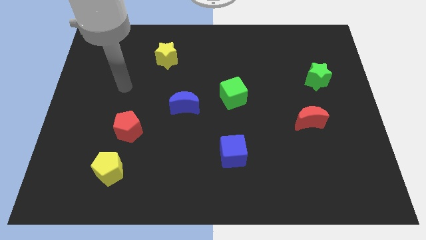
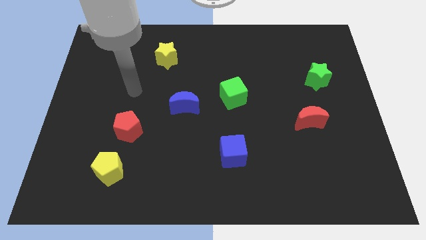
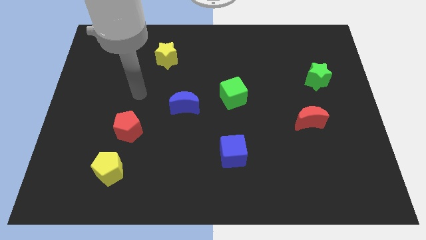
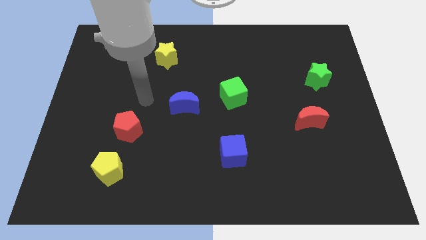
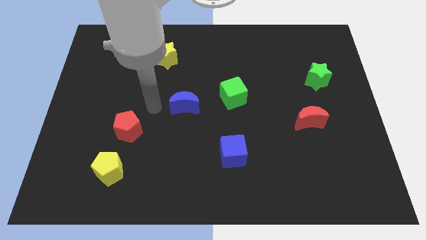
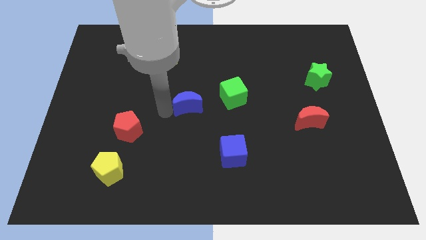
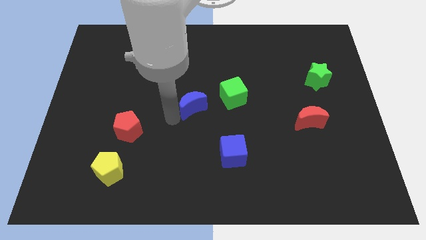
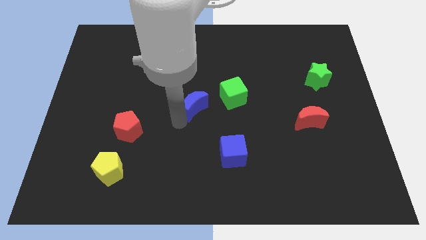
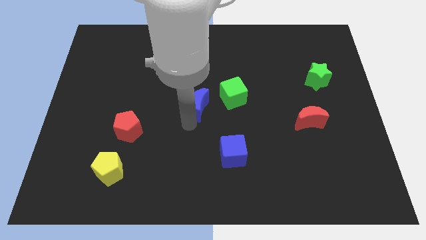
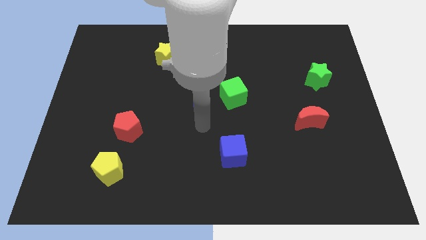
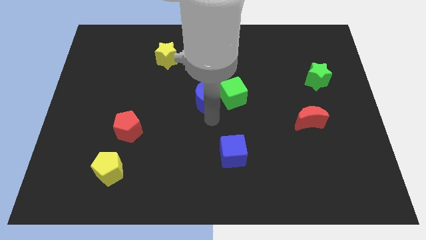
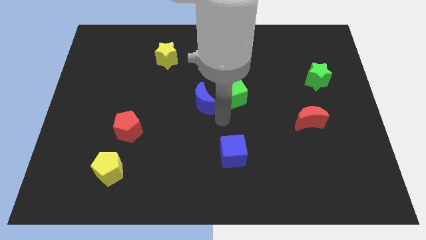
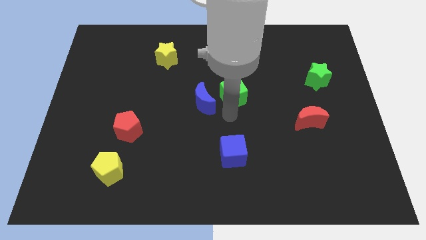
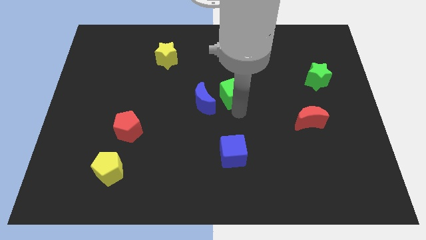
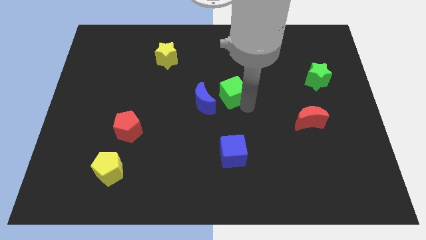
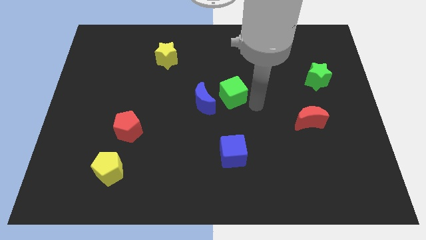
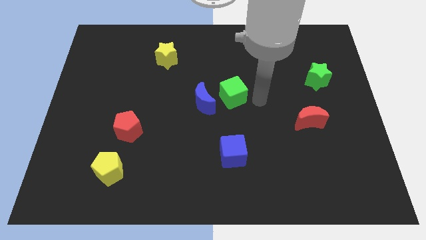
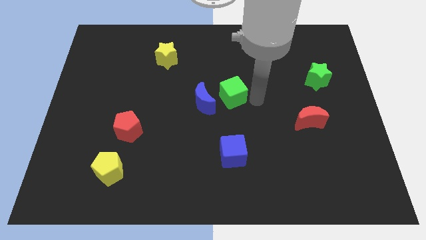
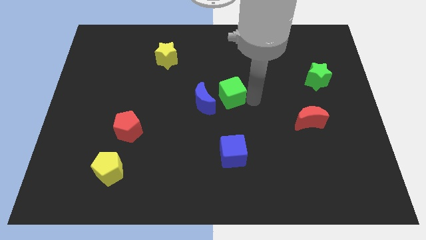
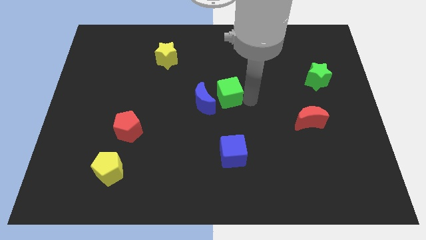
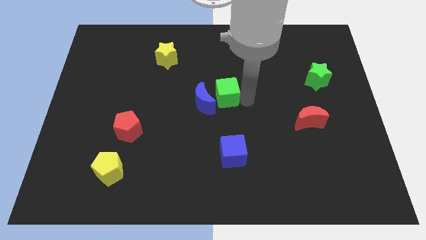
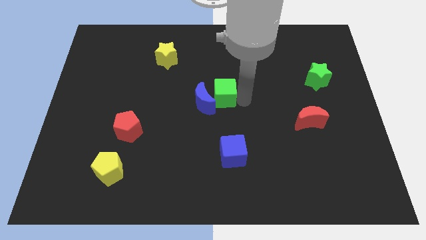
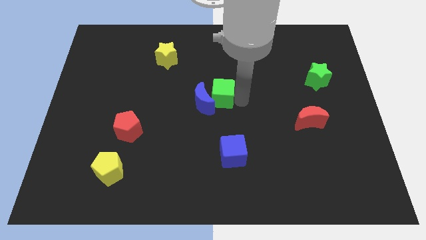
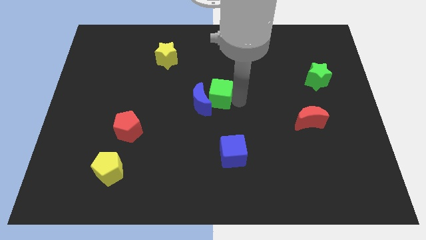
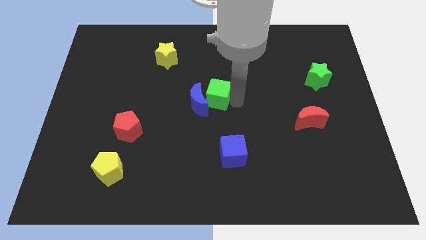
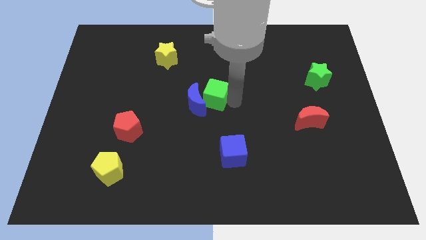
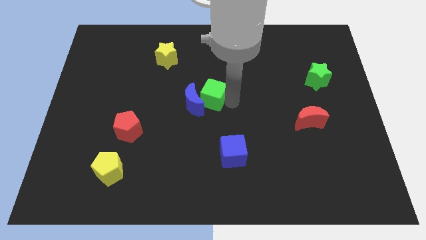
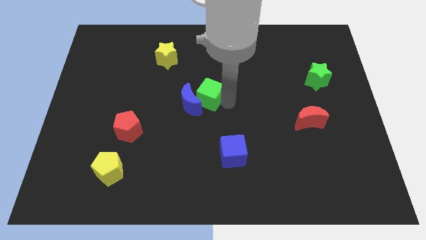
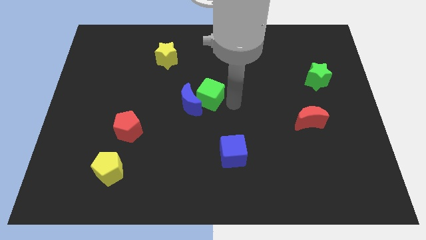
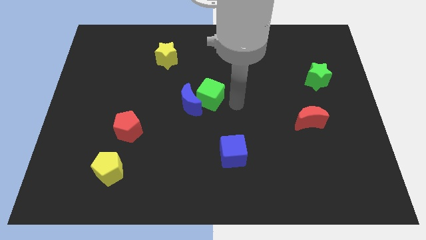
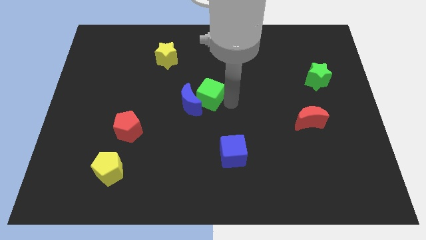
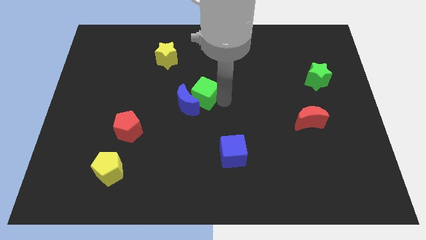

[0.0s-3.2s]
push the green cube slightly left

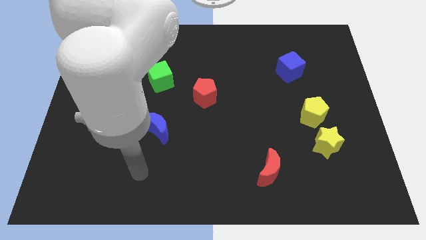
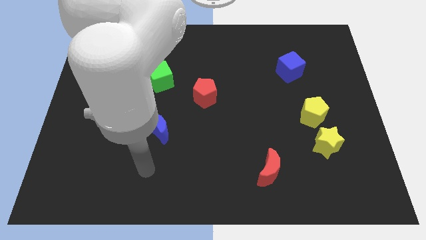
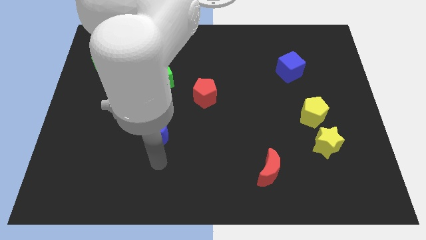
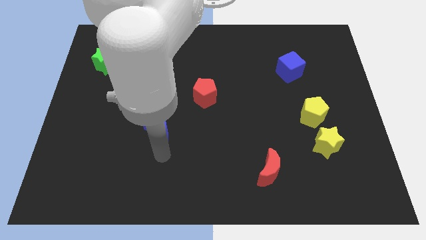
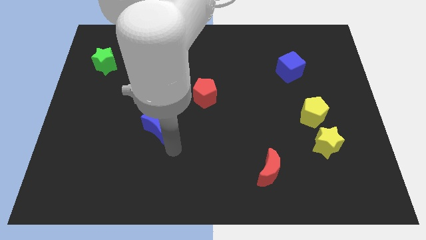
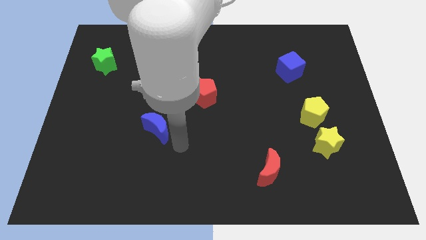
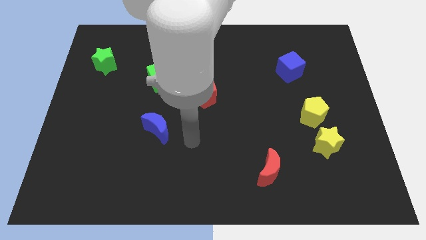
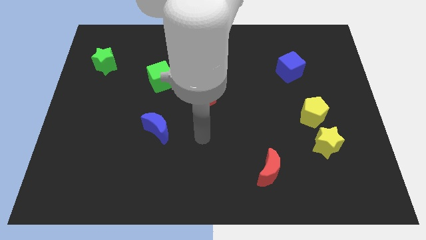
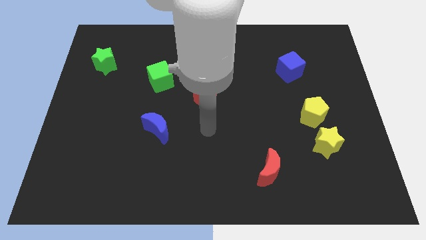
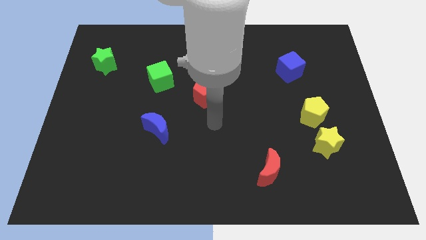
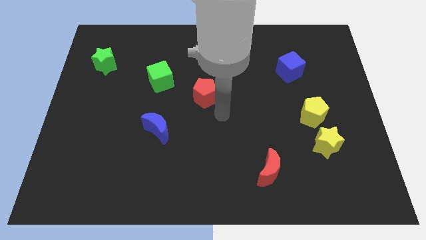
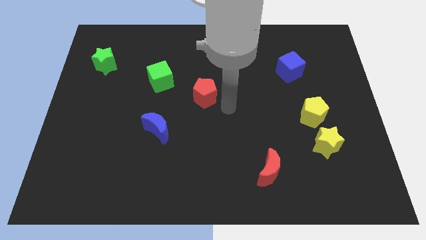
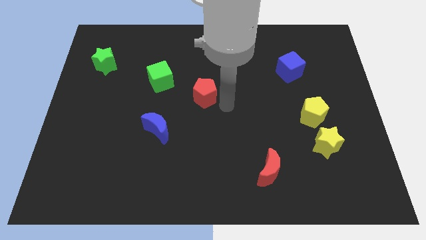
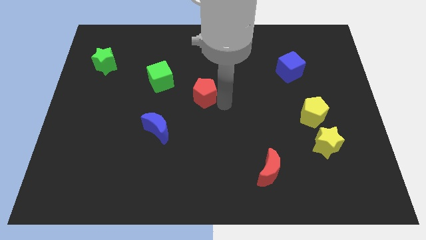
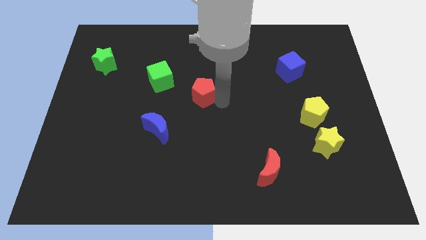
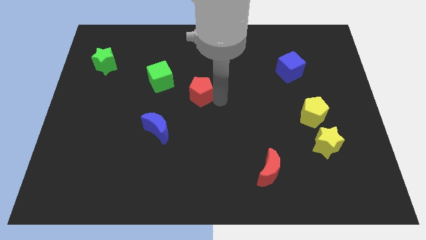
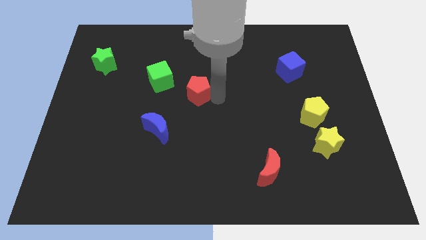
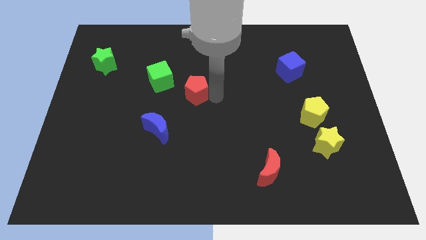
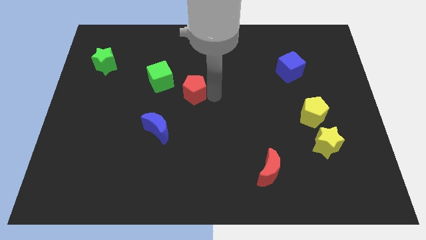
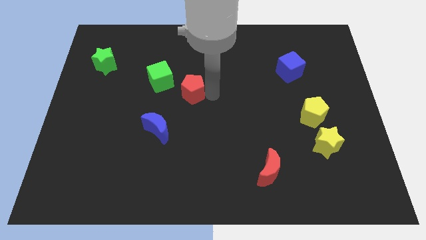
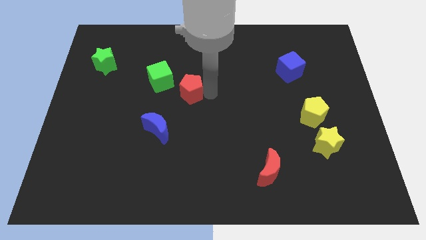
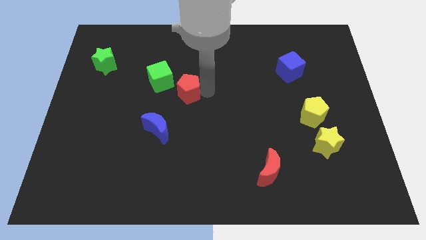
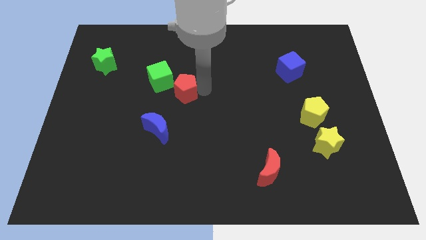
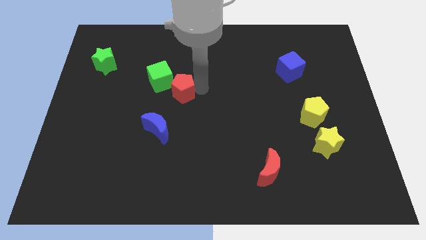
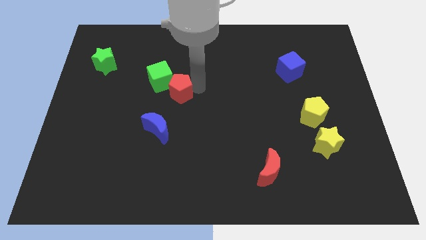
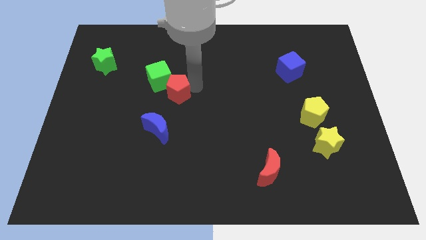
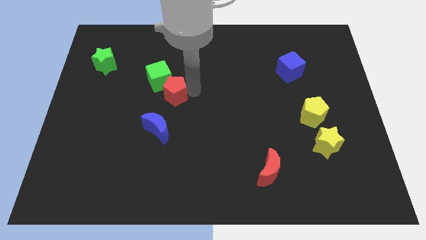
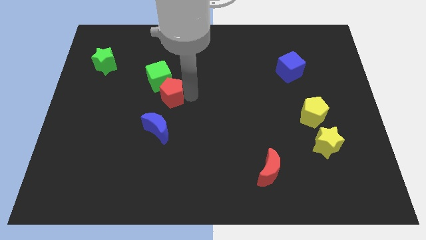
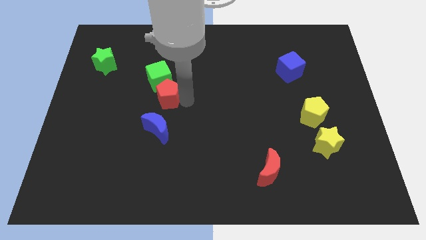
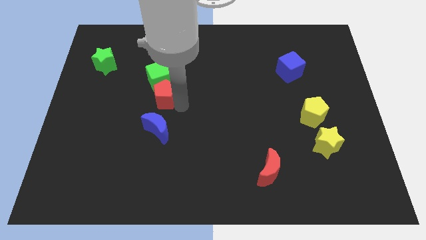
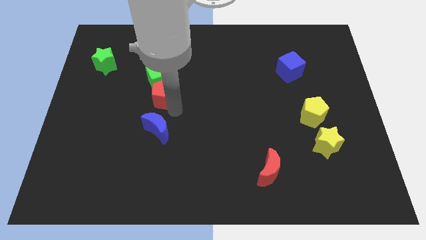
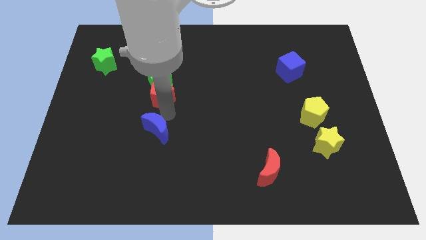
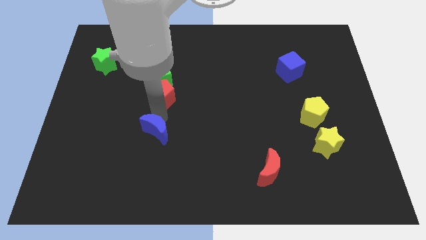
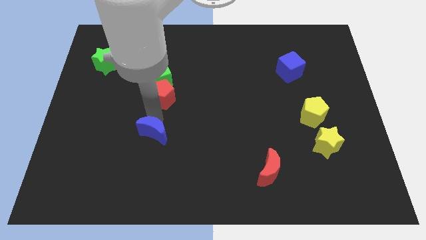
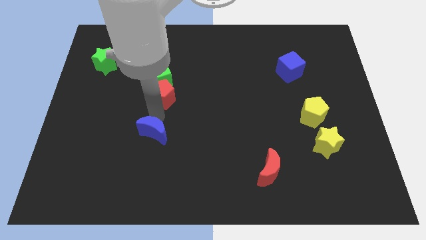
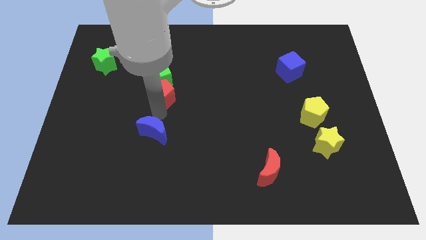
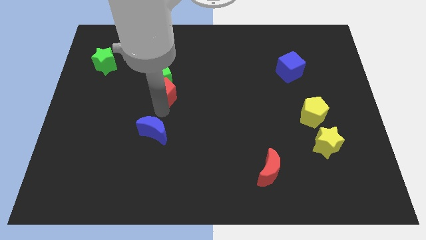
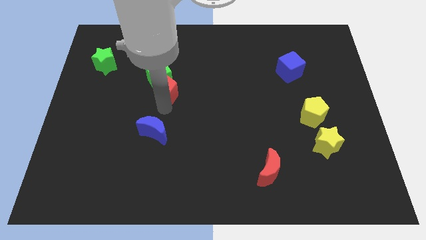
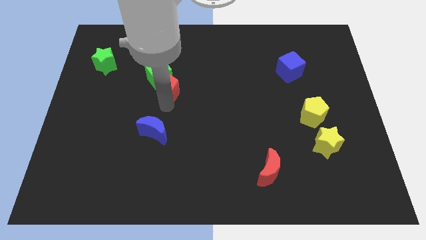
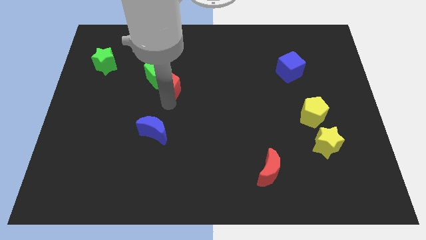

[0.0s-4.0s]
push the red pentagon slightly upwards and left

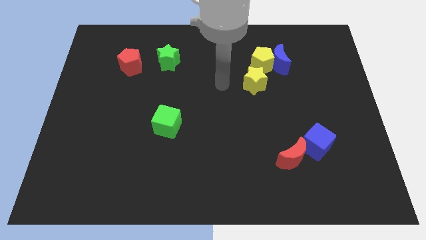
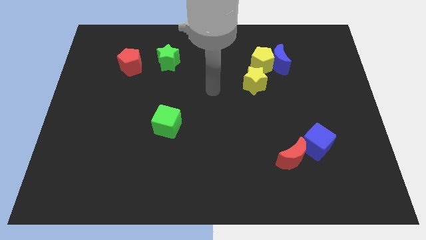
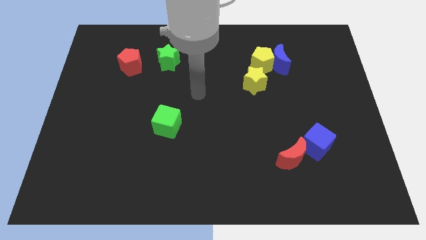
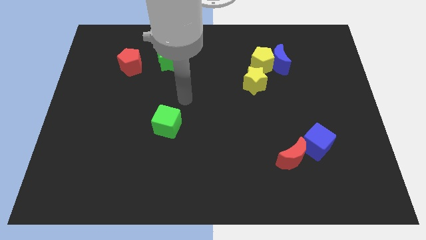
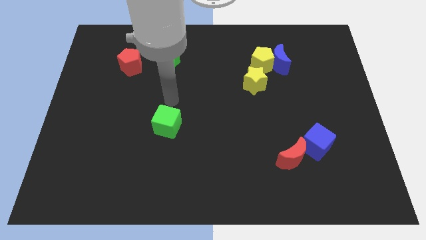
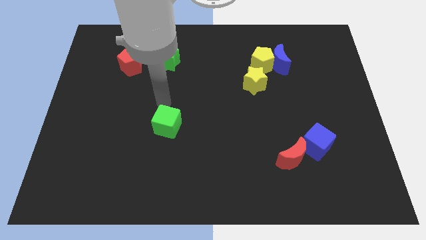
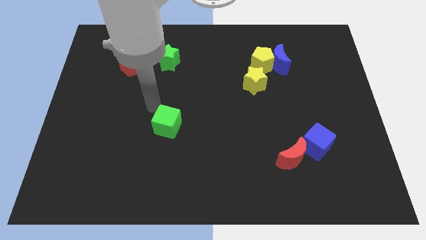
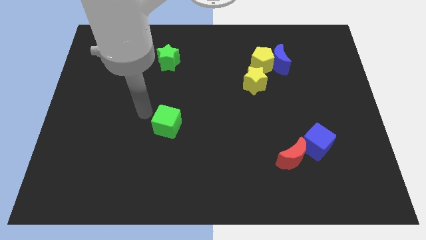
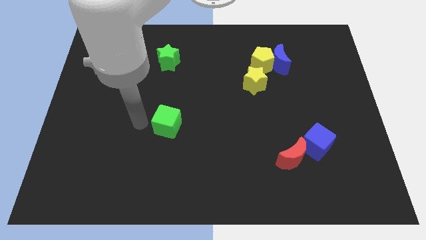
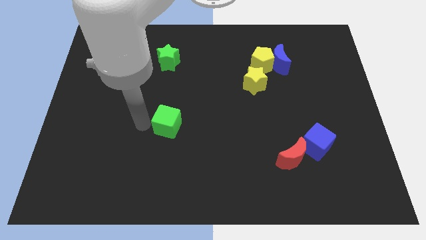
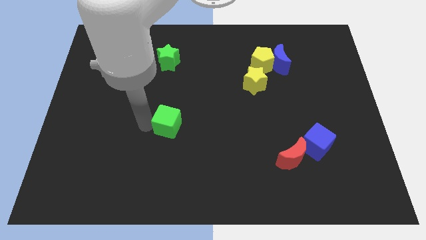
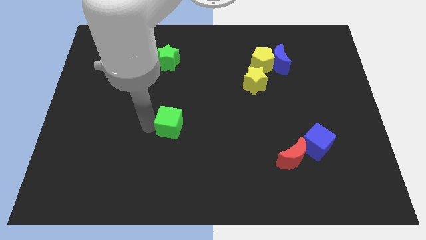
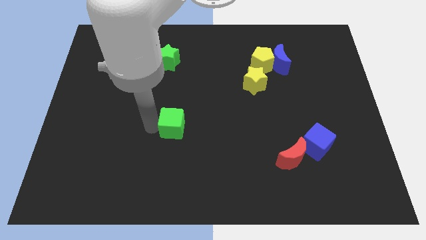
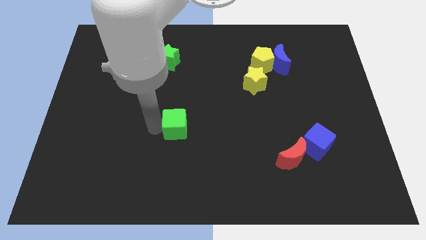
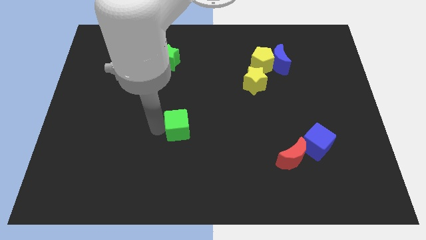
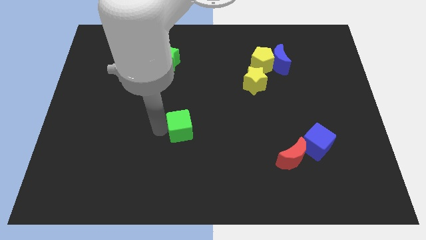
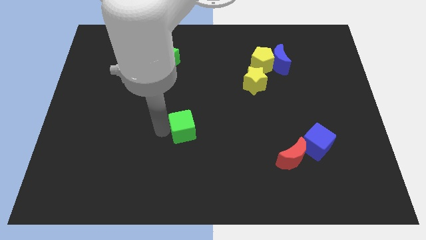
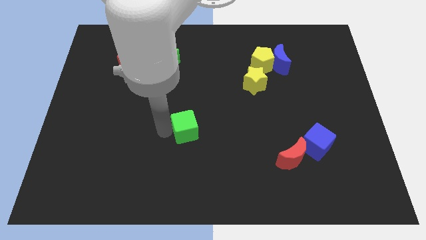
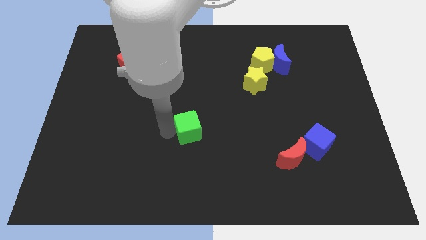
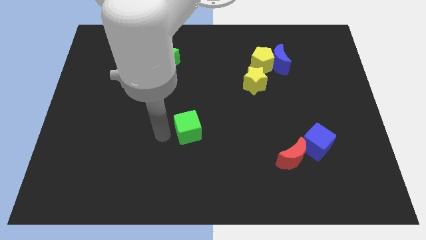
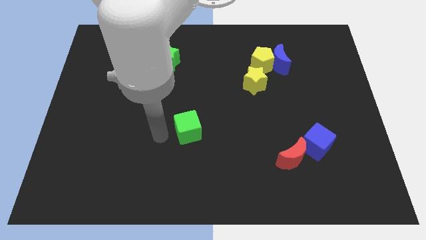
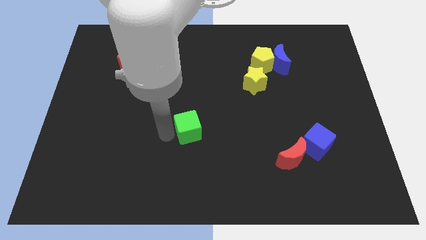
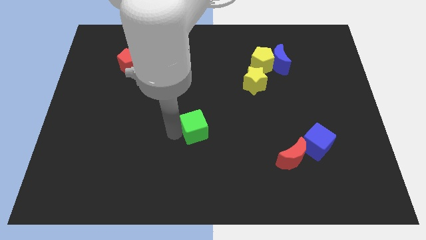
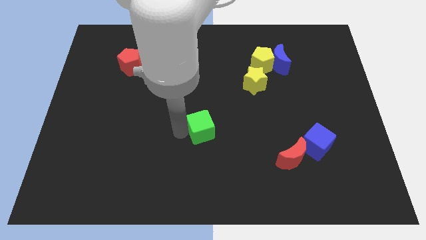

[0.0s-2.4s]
slightly slide the green cube right
